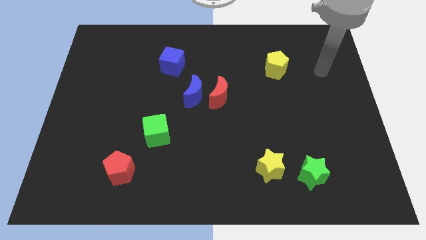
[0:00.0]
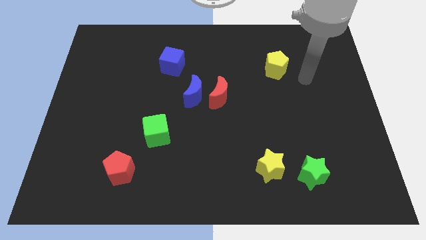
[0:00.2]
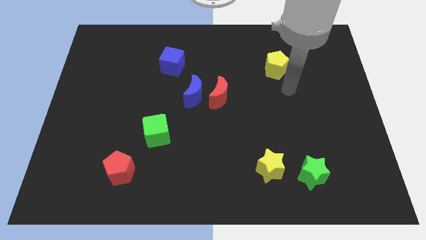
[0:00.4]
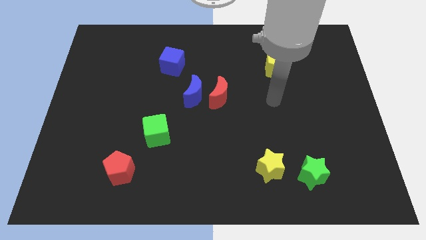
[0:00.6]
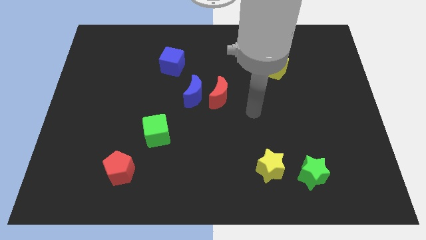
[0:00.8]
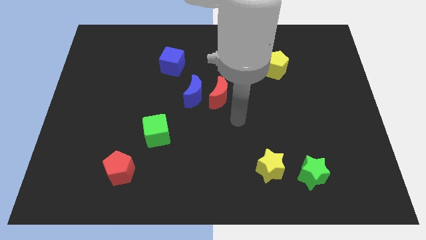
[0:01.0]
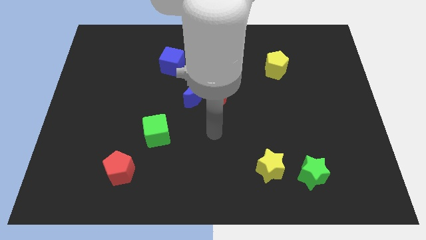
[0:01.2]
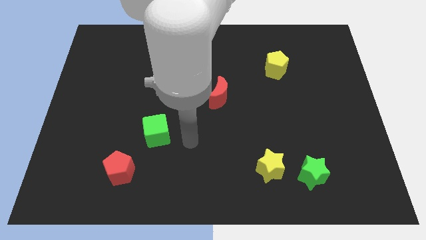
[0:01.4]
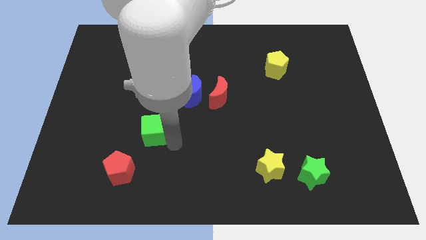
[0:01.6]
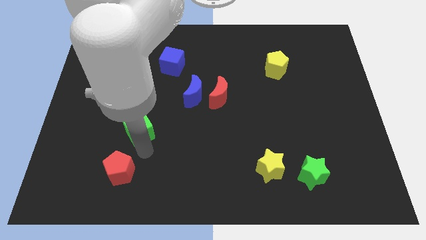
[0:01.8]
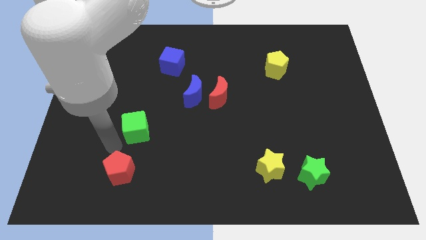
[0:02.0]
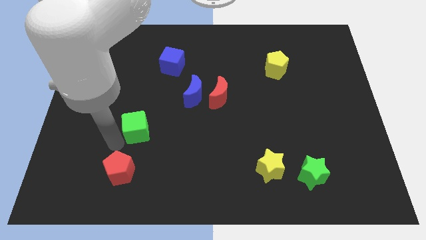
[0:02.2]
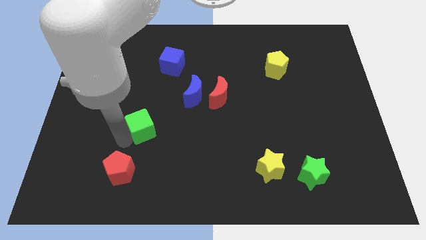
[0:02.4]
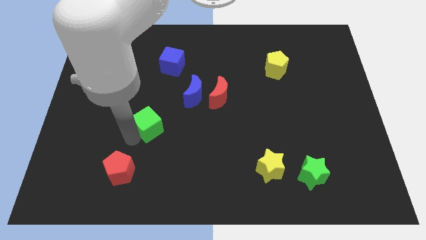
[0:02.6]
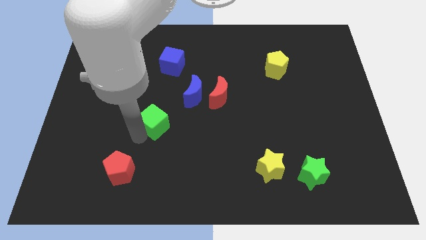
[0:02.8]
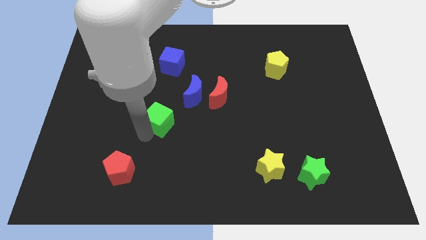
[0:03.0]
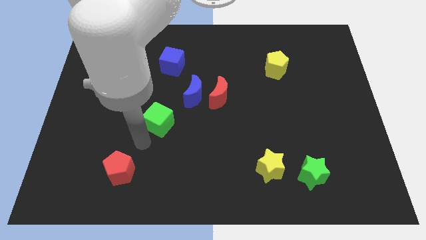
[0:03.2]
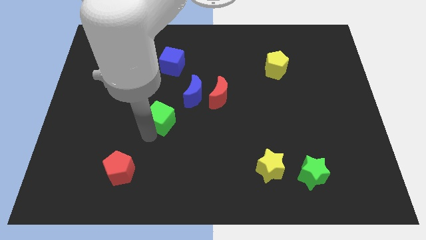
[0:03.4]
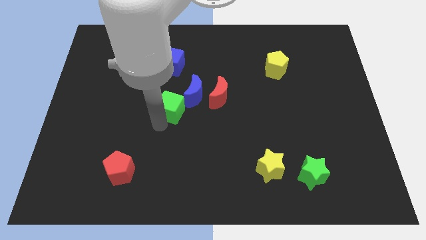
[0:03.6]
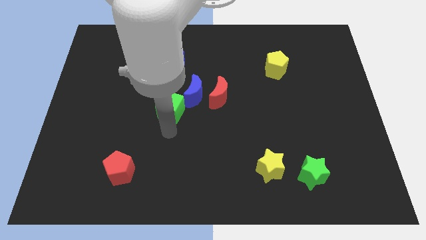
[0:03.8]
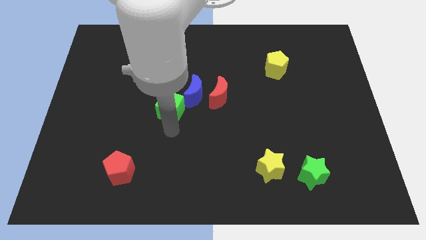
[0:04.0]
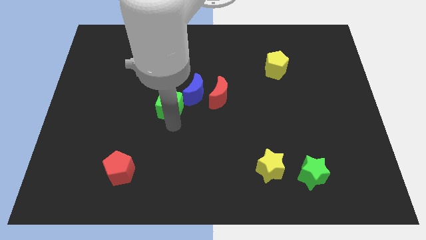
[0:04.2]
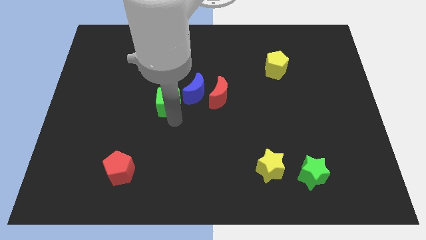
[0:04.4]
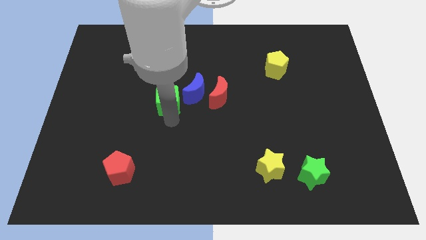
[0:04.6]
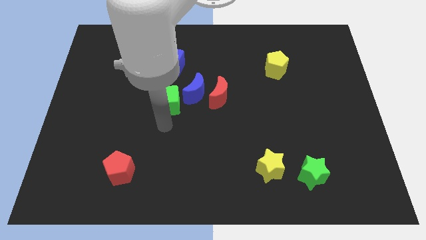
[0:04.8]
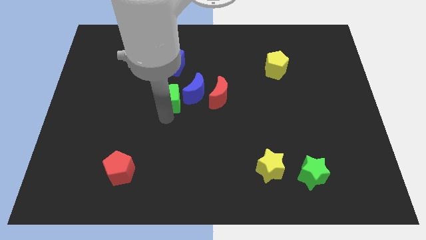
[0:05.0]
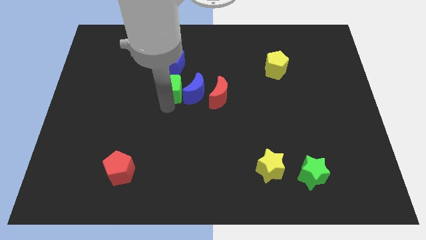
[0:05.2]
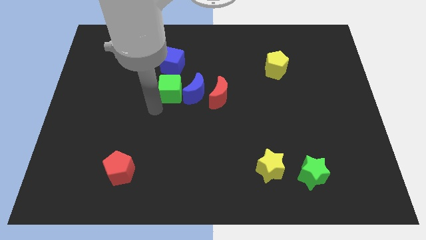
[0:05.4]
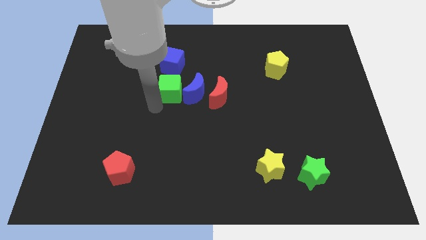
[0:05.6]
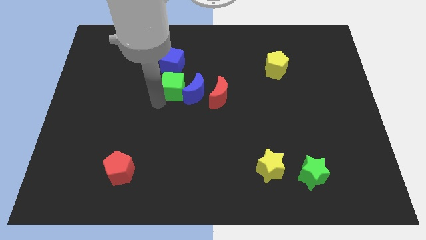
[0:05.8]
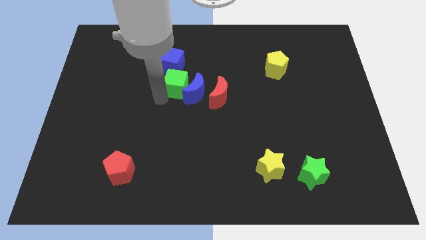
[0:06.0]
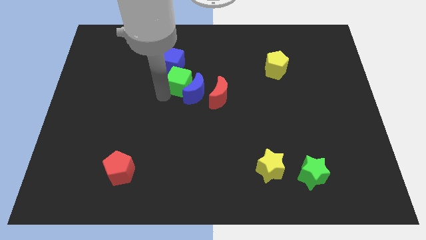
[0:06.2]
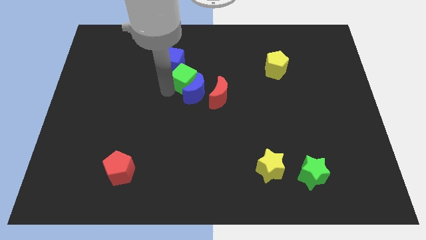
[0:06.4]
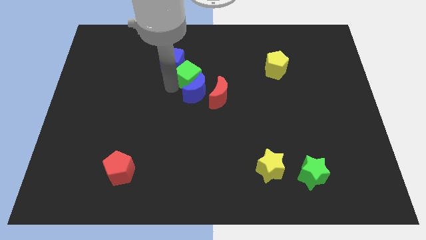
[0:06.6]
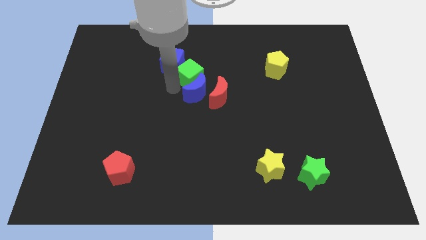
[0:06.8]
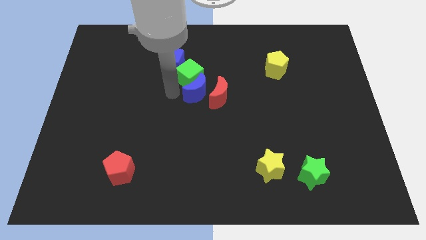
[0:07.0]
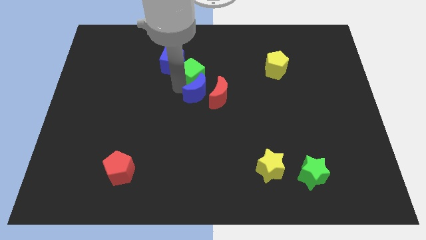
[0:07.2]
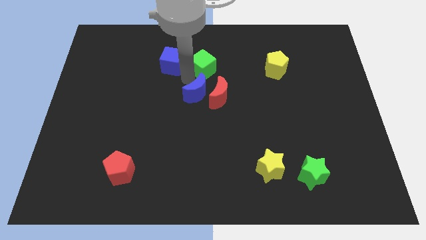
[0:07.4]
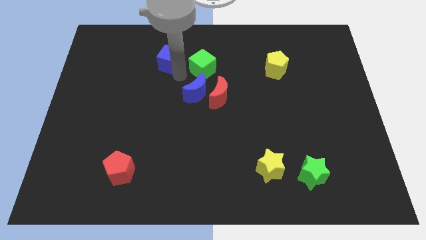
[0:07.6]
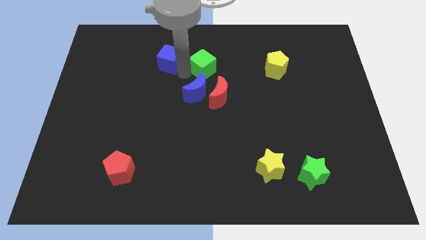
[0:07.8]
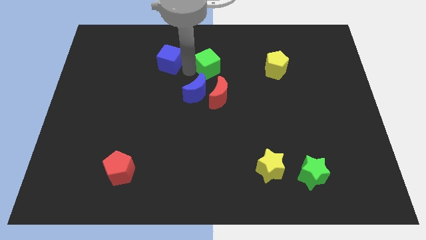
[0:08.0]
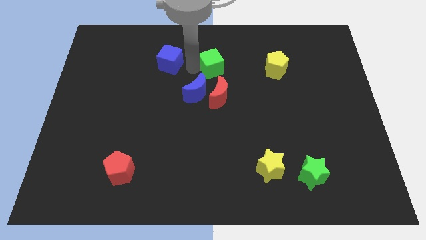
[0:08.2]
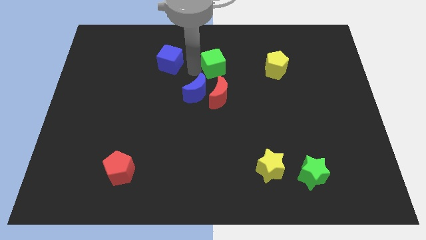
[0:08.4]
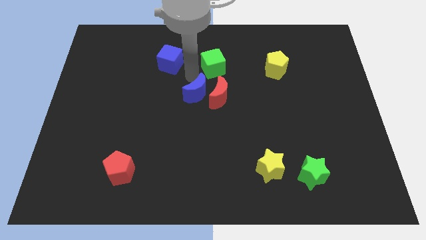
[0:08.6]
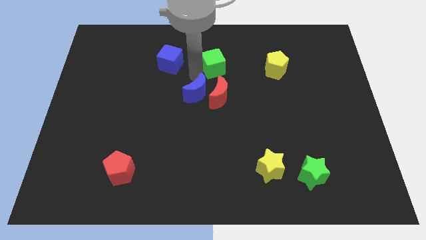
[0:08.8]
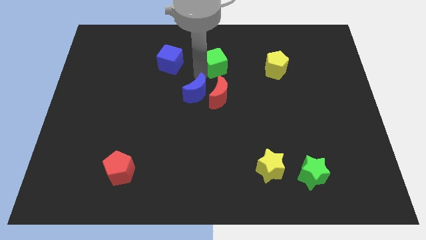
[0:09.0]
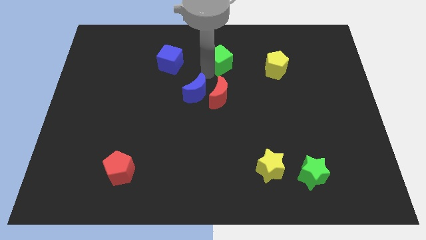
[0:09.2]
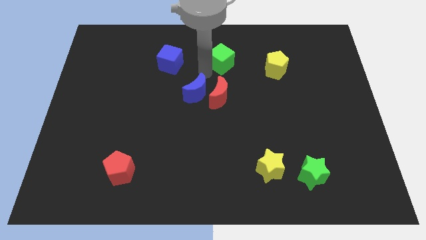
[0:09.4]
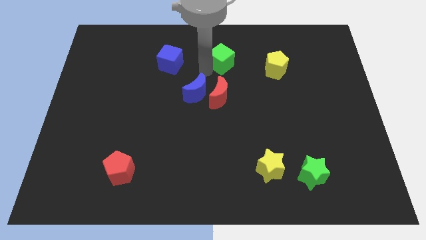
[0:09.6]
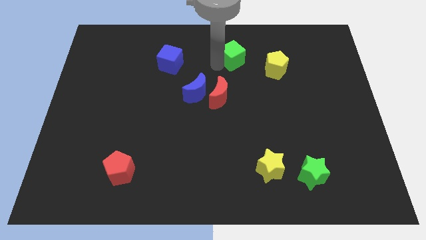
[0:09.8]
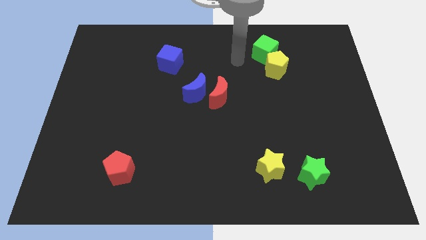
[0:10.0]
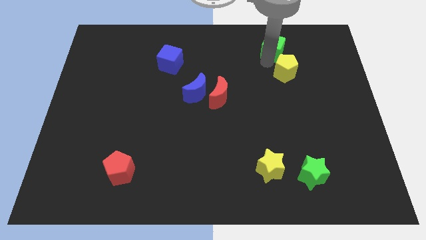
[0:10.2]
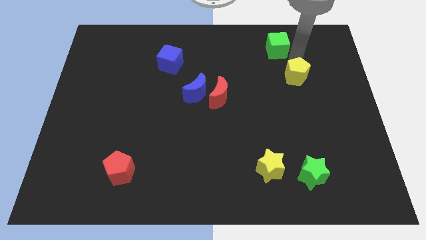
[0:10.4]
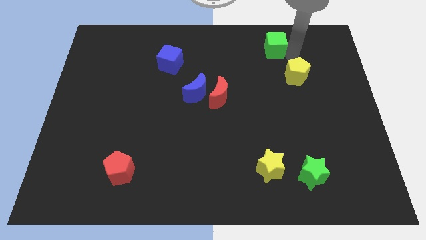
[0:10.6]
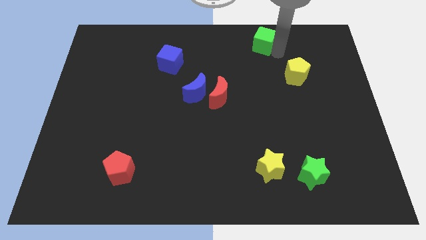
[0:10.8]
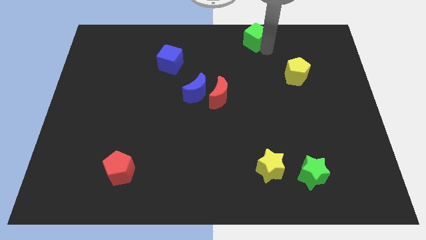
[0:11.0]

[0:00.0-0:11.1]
move the green cube to the towards your base

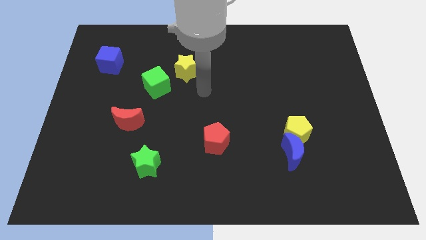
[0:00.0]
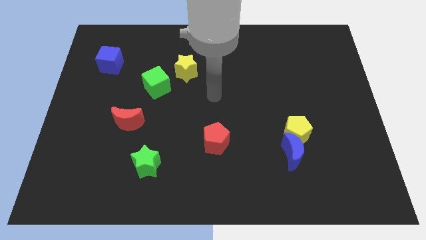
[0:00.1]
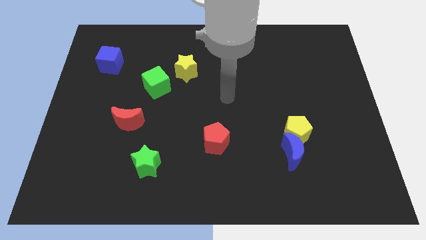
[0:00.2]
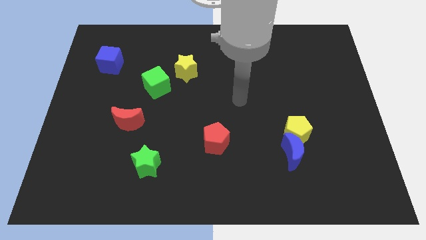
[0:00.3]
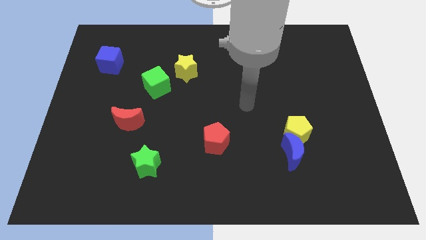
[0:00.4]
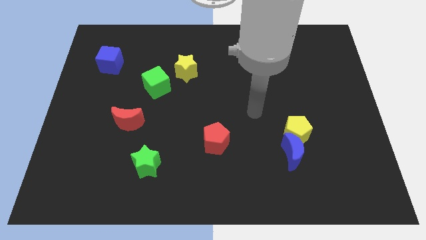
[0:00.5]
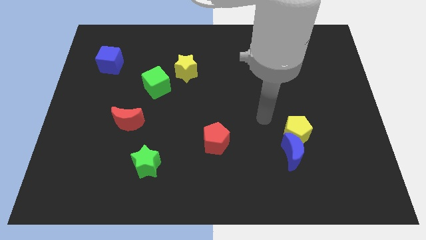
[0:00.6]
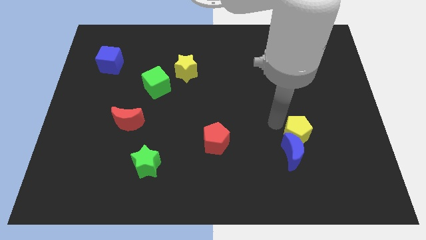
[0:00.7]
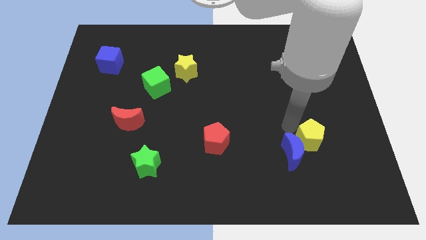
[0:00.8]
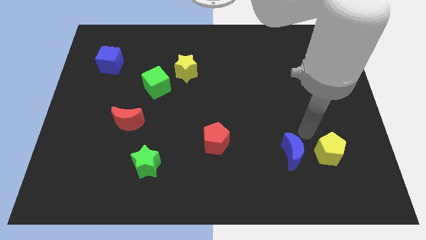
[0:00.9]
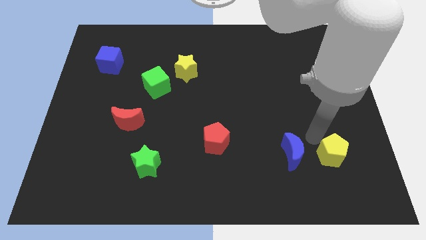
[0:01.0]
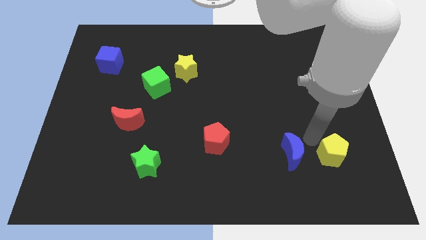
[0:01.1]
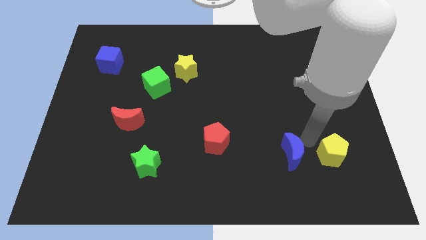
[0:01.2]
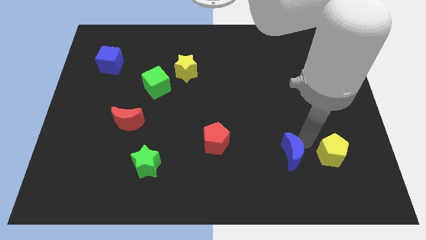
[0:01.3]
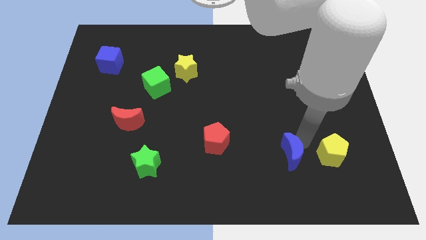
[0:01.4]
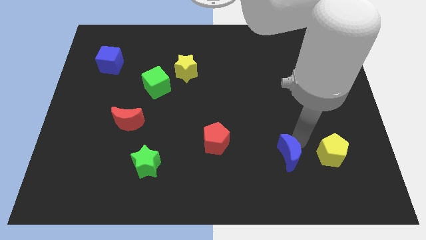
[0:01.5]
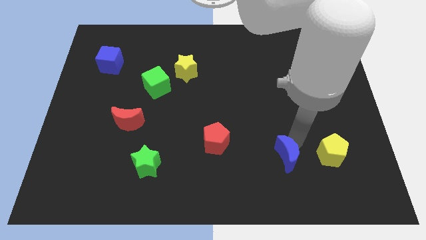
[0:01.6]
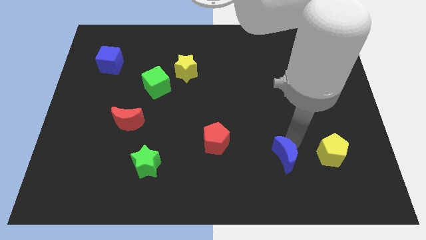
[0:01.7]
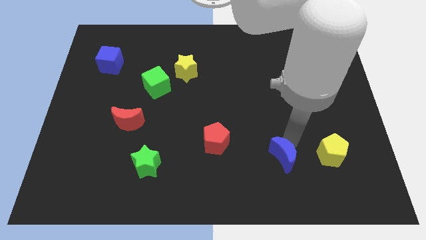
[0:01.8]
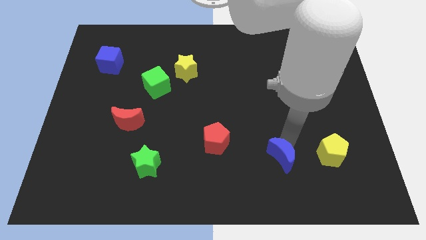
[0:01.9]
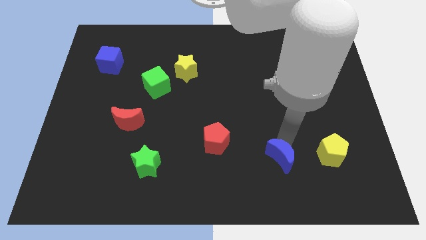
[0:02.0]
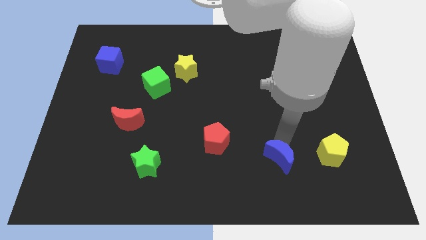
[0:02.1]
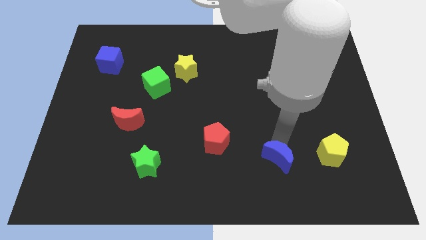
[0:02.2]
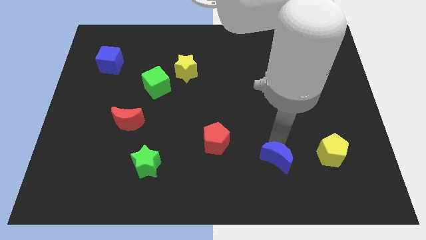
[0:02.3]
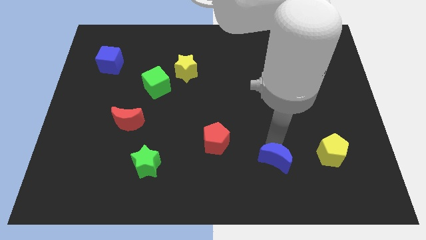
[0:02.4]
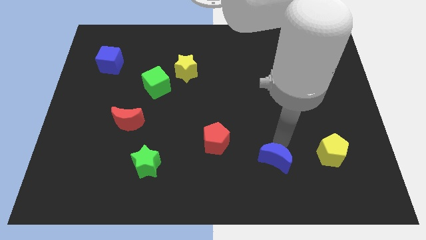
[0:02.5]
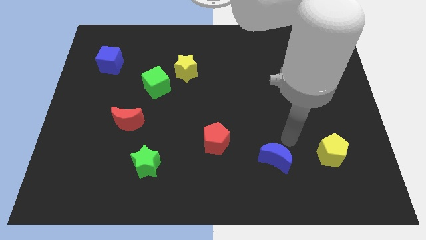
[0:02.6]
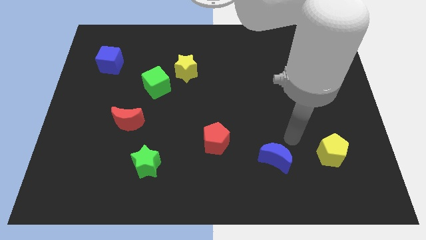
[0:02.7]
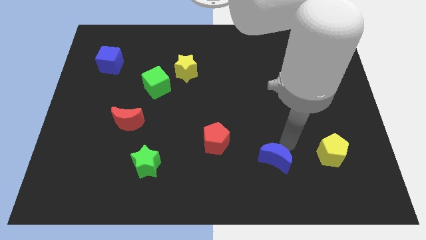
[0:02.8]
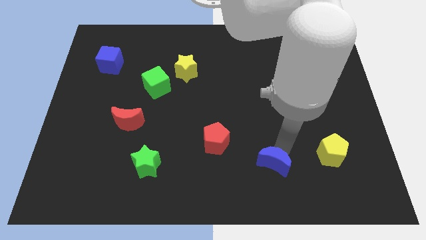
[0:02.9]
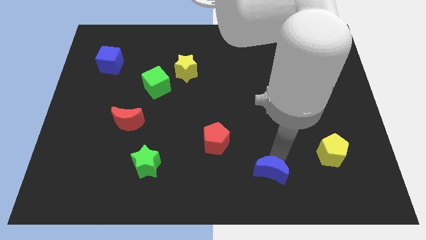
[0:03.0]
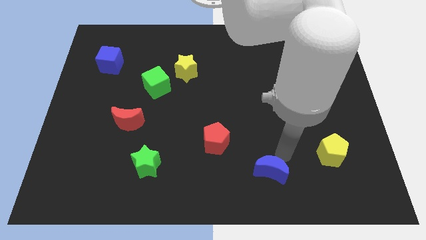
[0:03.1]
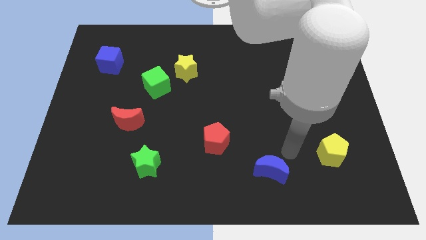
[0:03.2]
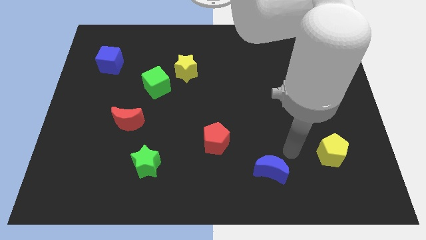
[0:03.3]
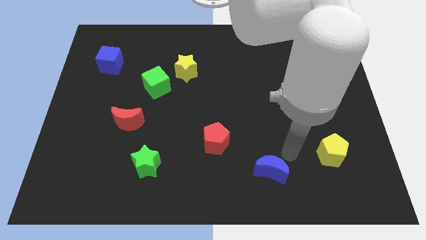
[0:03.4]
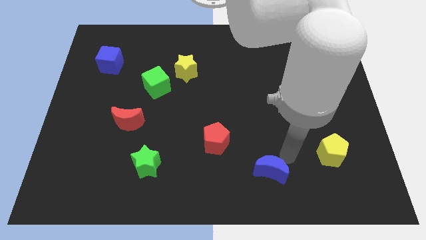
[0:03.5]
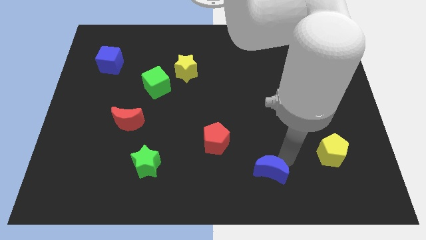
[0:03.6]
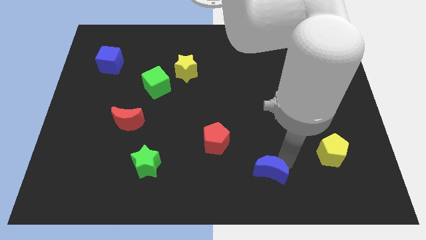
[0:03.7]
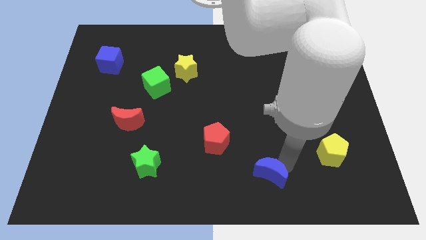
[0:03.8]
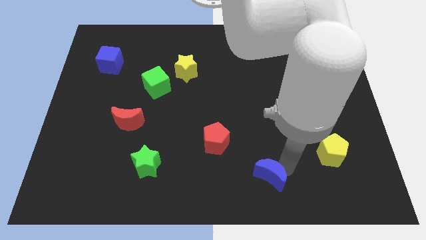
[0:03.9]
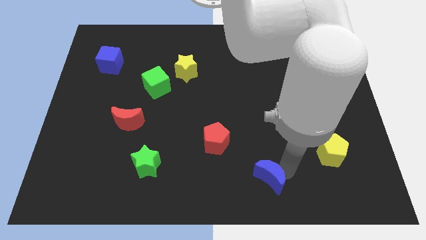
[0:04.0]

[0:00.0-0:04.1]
move the blue moon to the bottom
